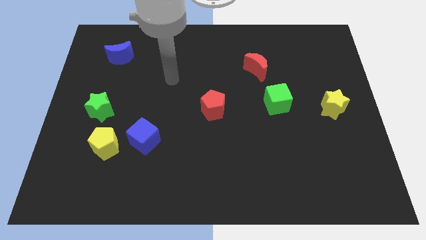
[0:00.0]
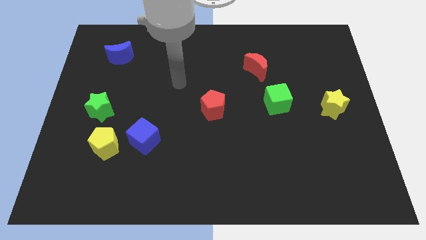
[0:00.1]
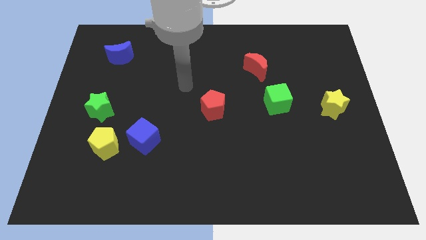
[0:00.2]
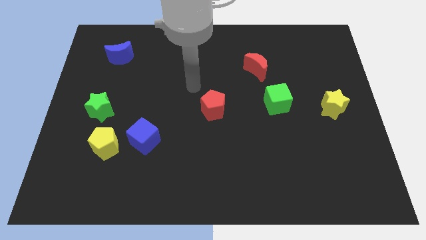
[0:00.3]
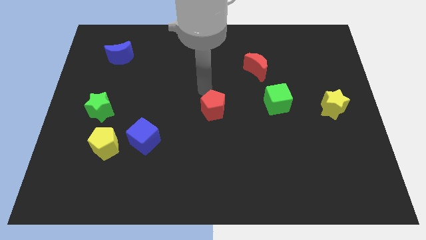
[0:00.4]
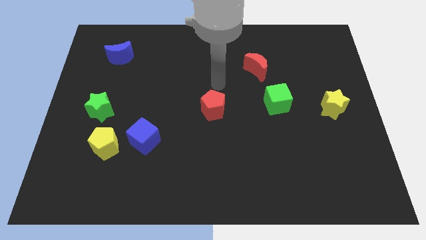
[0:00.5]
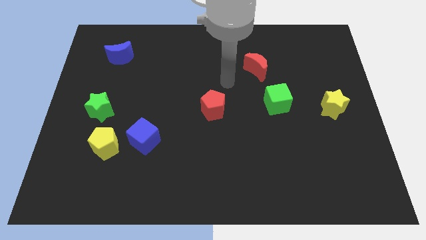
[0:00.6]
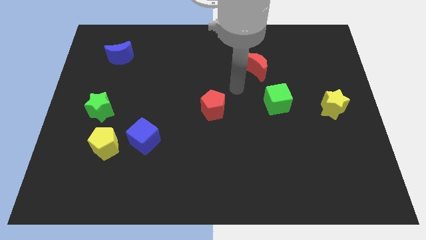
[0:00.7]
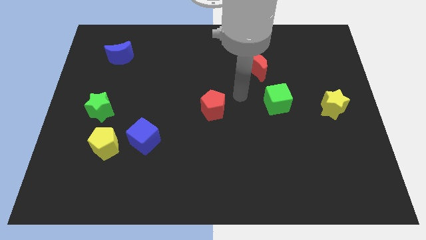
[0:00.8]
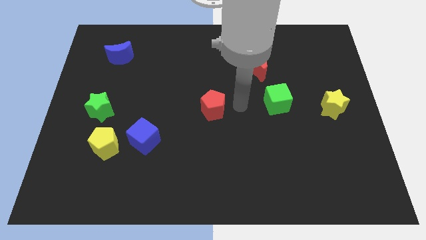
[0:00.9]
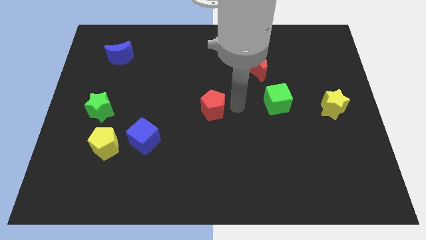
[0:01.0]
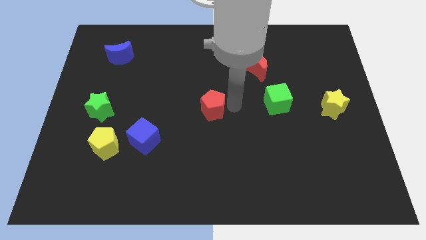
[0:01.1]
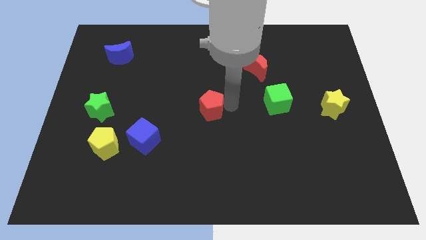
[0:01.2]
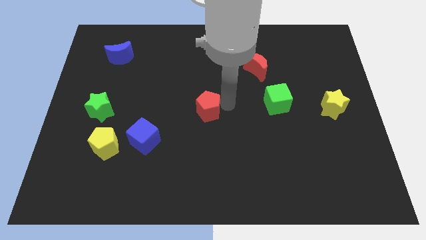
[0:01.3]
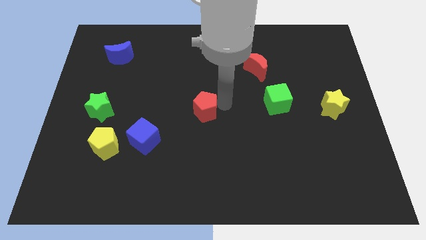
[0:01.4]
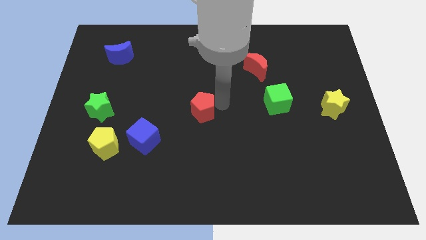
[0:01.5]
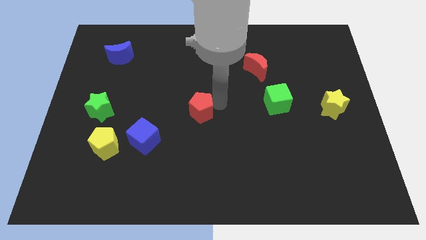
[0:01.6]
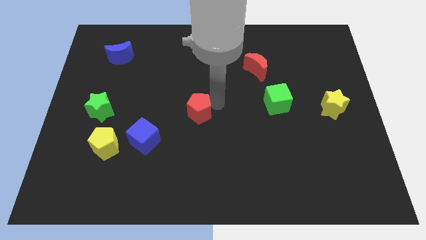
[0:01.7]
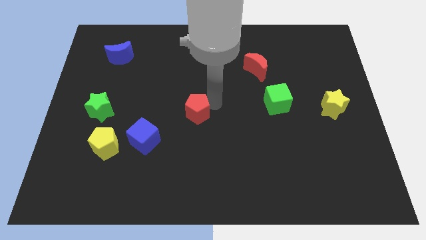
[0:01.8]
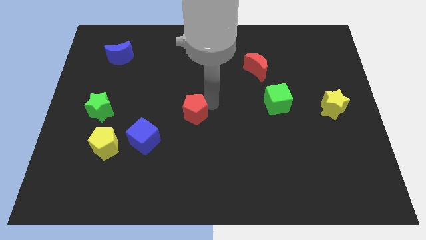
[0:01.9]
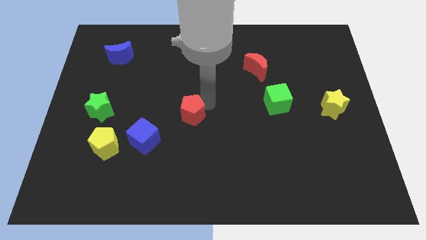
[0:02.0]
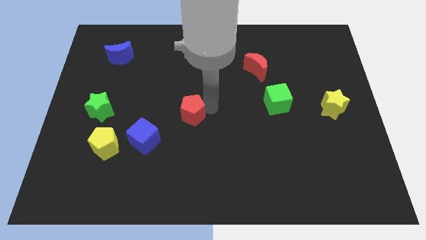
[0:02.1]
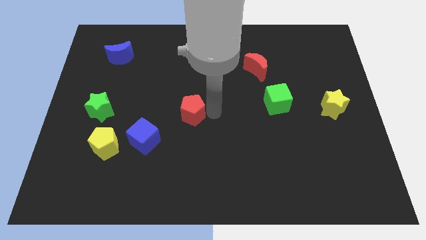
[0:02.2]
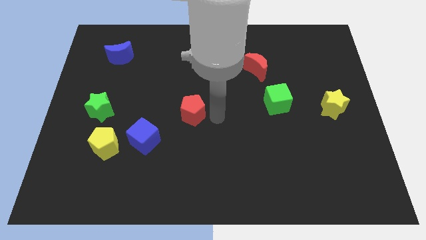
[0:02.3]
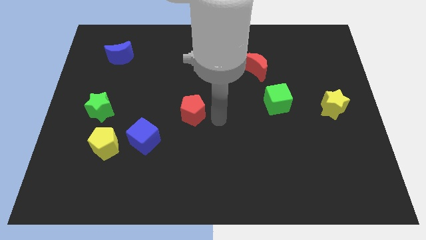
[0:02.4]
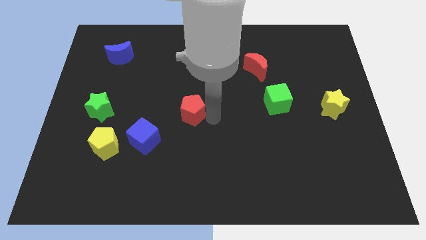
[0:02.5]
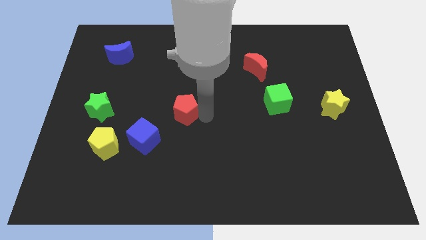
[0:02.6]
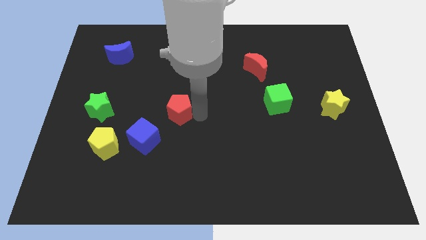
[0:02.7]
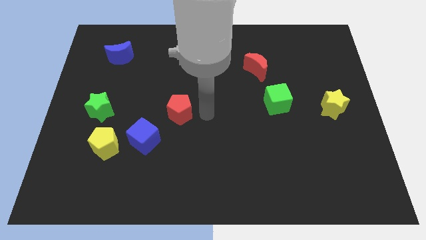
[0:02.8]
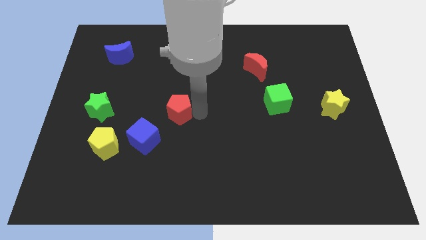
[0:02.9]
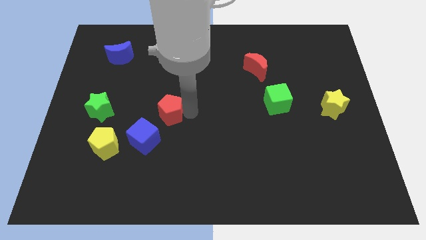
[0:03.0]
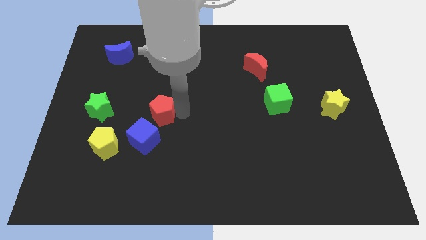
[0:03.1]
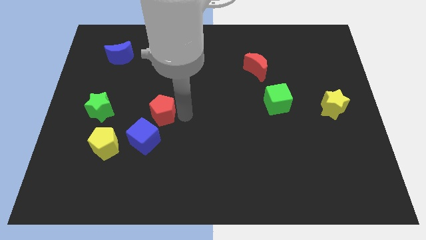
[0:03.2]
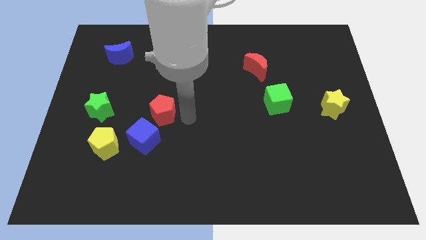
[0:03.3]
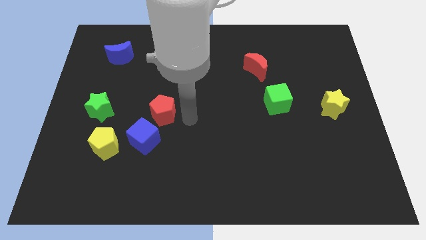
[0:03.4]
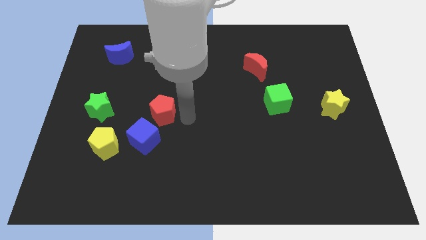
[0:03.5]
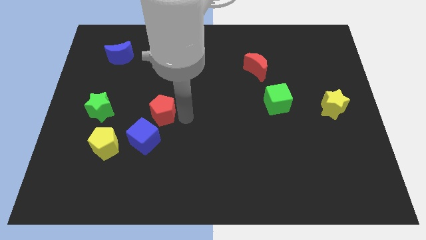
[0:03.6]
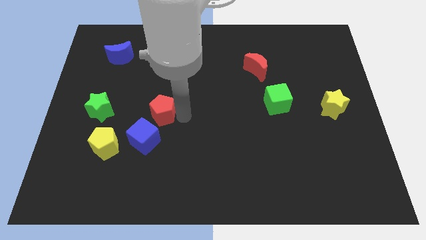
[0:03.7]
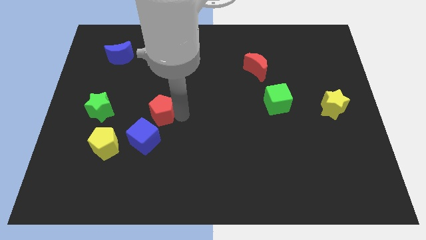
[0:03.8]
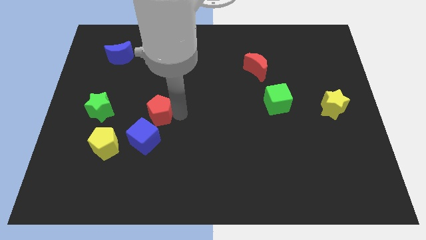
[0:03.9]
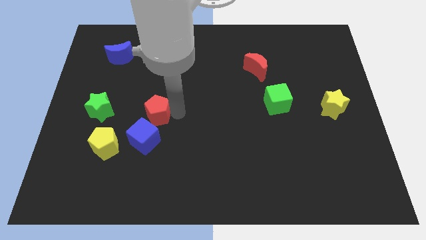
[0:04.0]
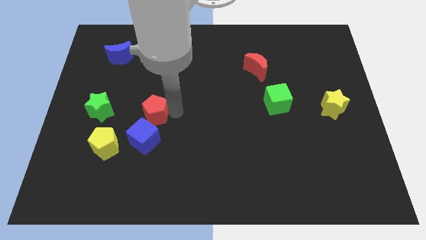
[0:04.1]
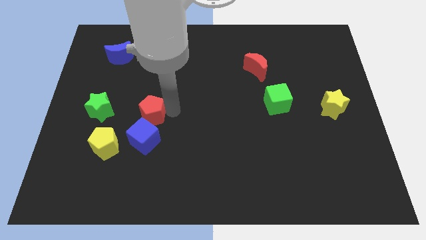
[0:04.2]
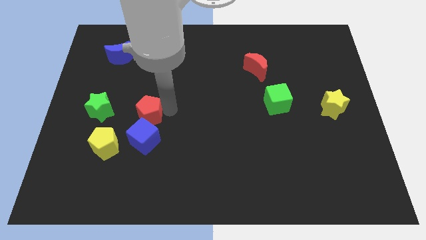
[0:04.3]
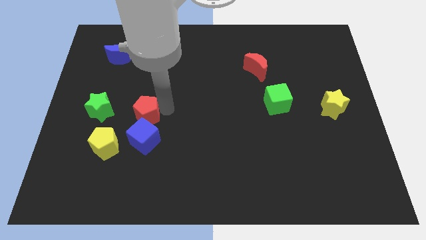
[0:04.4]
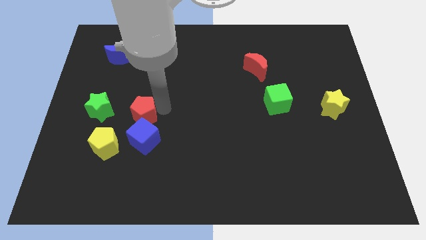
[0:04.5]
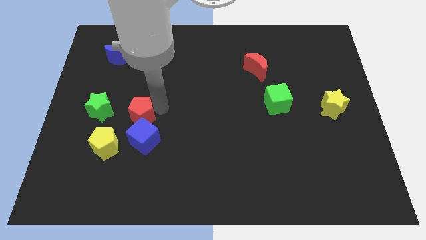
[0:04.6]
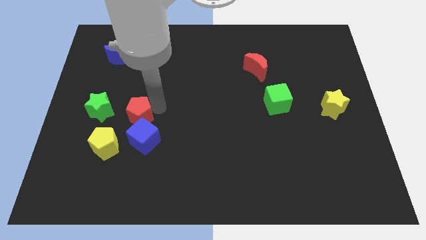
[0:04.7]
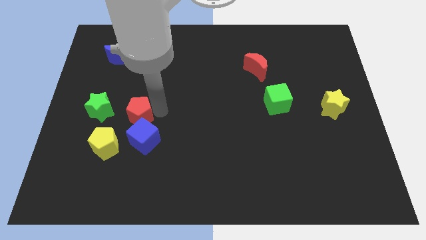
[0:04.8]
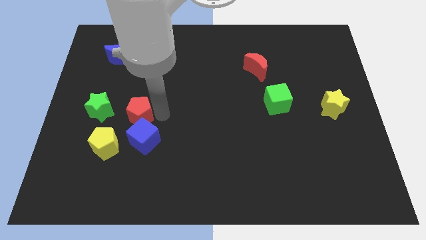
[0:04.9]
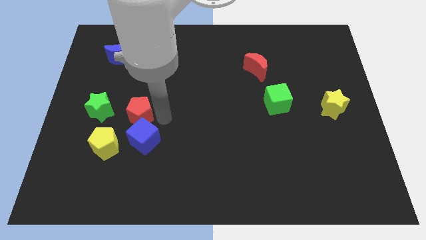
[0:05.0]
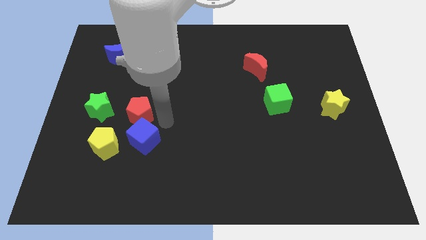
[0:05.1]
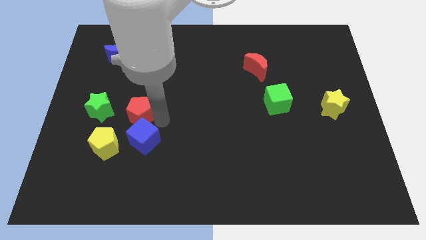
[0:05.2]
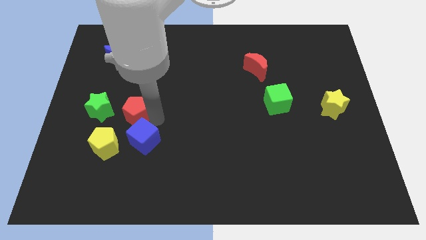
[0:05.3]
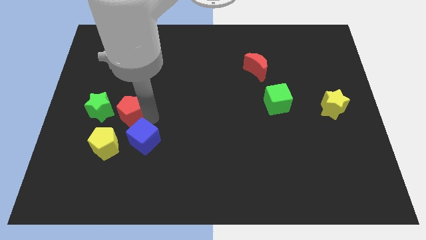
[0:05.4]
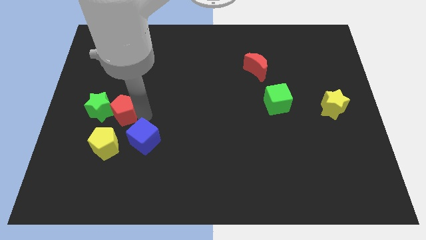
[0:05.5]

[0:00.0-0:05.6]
push the red pentagon next to the green star

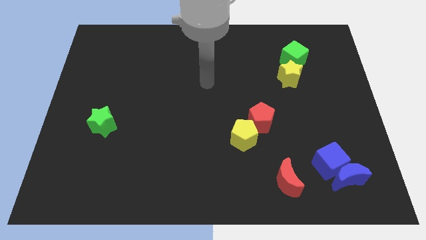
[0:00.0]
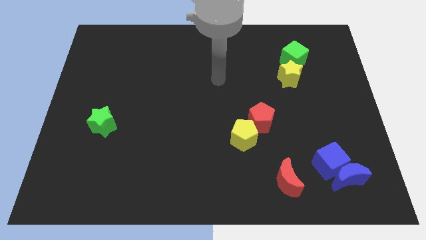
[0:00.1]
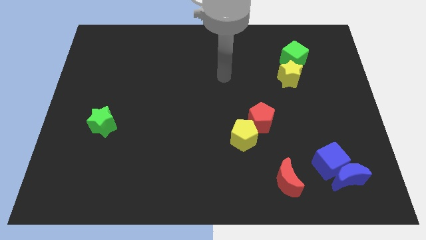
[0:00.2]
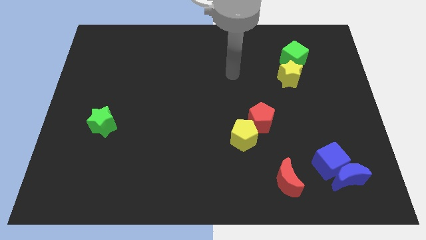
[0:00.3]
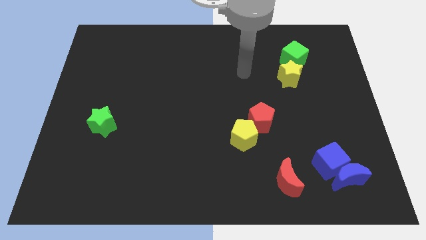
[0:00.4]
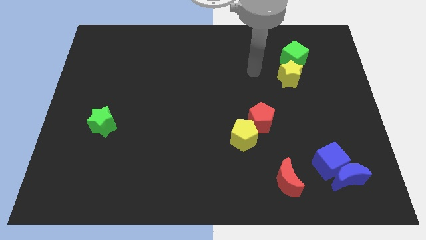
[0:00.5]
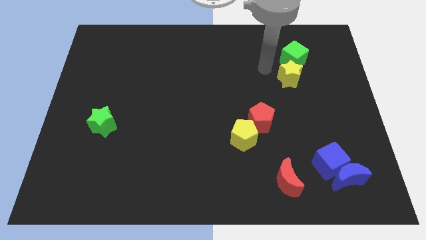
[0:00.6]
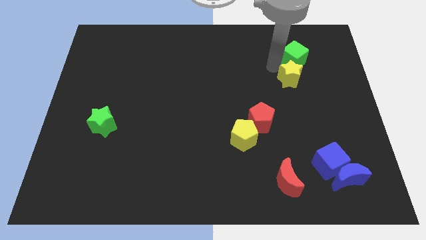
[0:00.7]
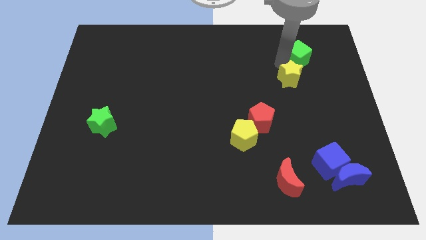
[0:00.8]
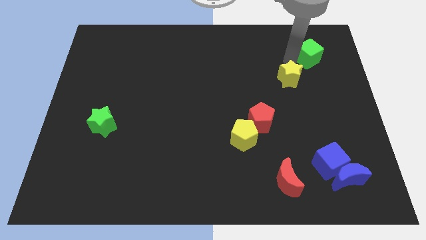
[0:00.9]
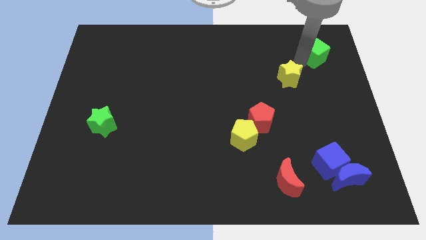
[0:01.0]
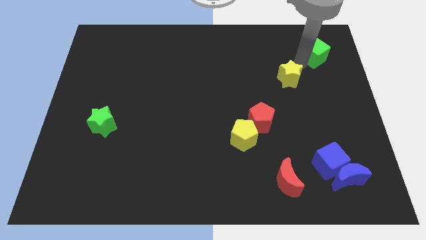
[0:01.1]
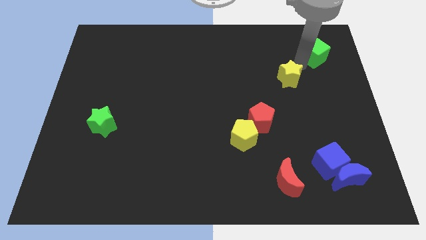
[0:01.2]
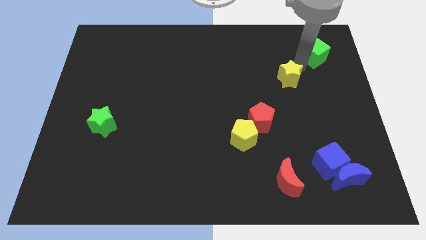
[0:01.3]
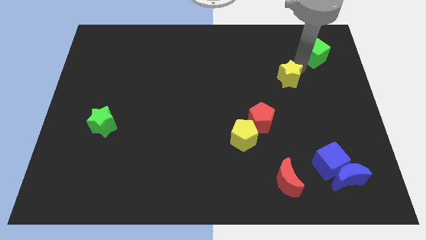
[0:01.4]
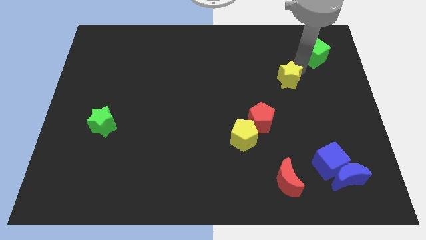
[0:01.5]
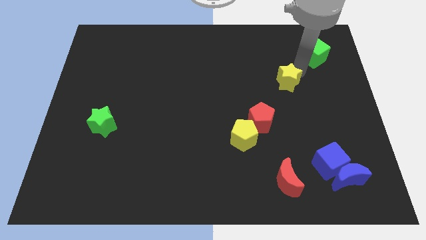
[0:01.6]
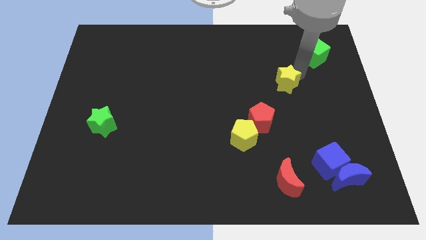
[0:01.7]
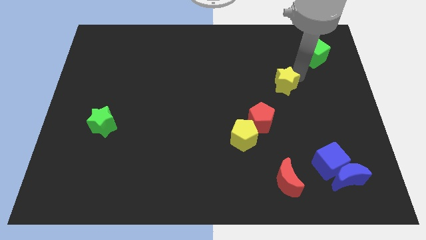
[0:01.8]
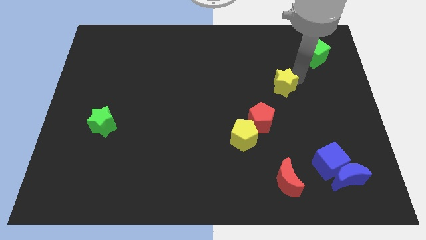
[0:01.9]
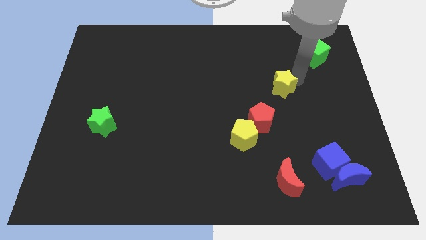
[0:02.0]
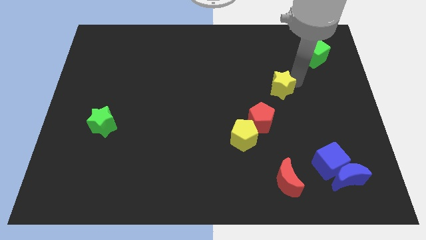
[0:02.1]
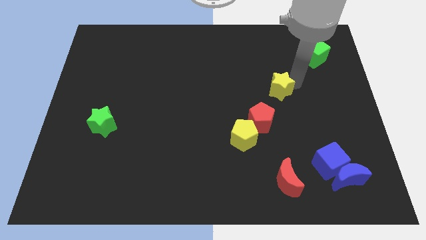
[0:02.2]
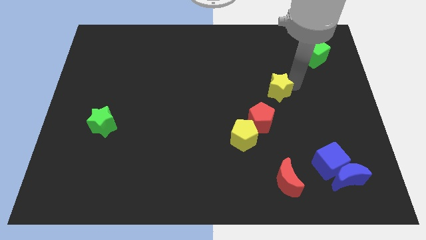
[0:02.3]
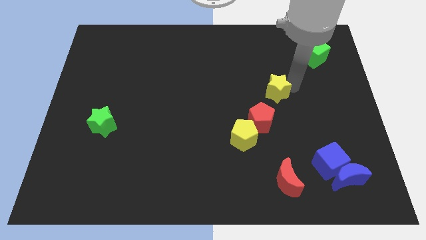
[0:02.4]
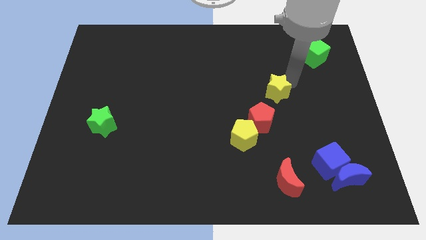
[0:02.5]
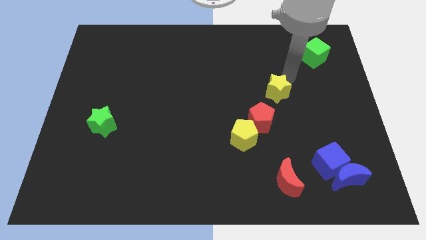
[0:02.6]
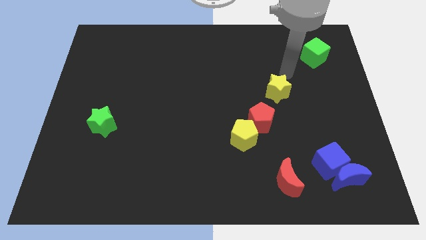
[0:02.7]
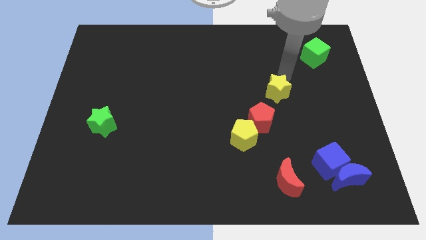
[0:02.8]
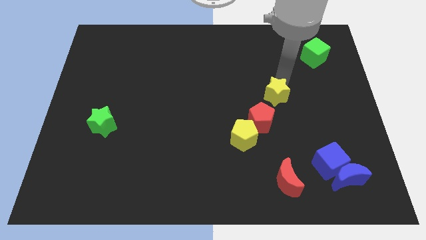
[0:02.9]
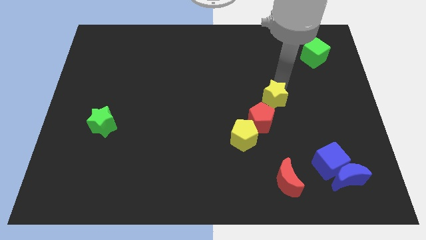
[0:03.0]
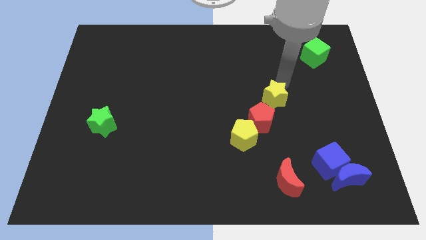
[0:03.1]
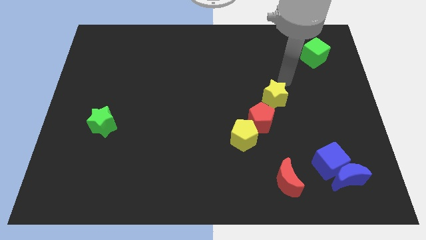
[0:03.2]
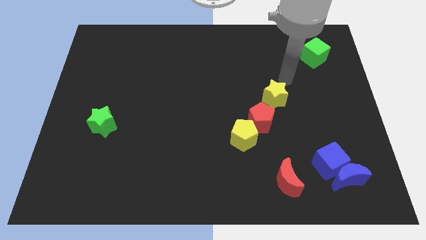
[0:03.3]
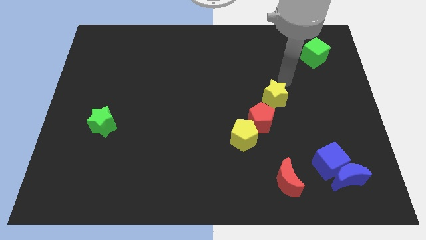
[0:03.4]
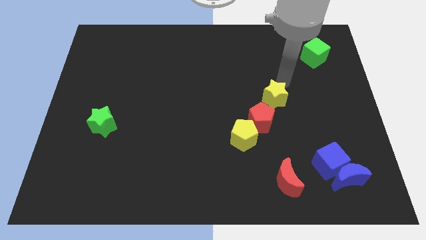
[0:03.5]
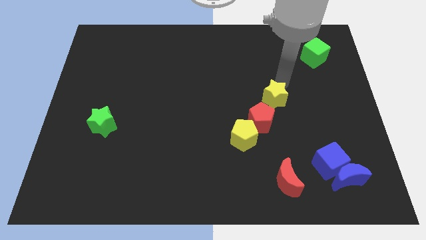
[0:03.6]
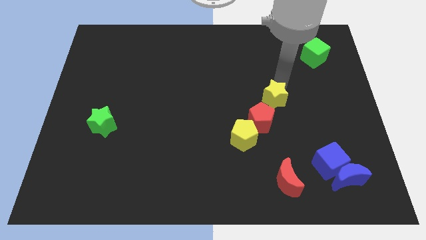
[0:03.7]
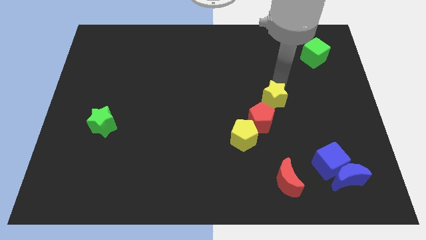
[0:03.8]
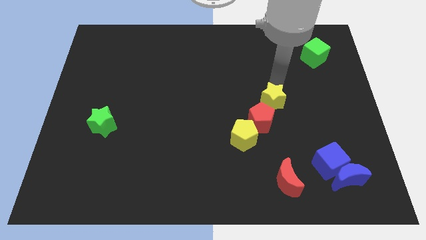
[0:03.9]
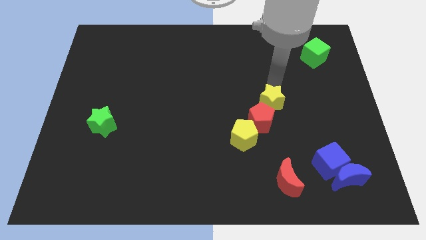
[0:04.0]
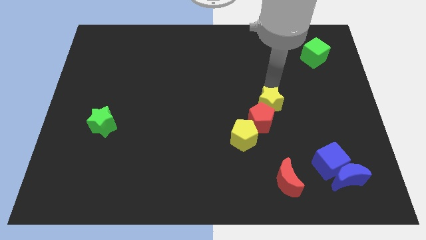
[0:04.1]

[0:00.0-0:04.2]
push the yellow star next to the red pentagon
